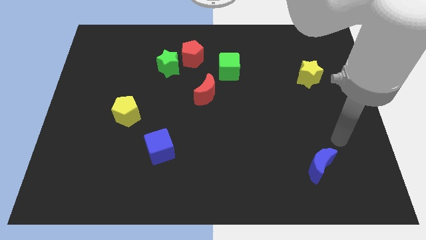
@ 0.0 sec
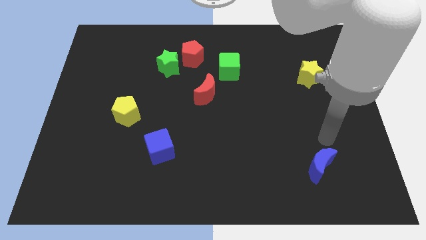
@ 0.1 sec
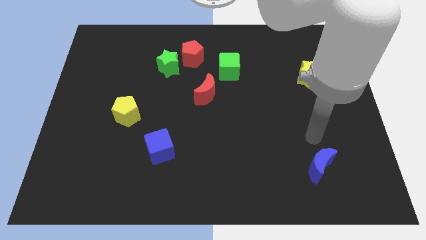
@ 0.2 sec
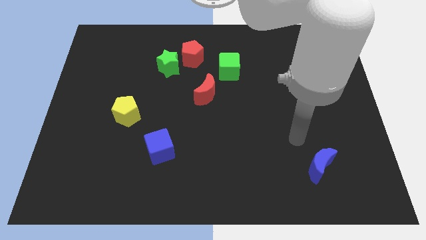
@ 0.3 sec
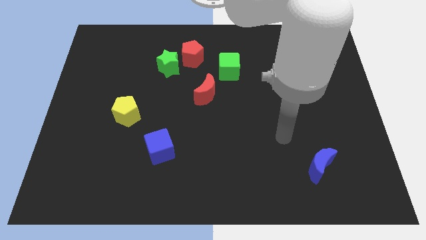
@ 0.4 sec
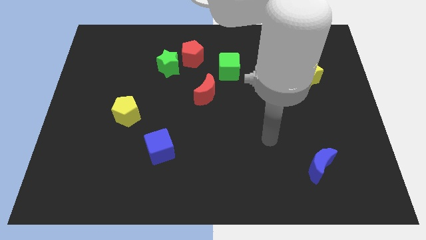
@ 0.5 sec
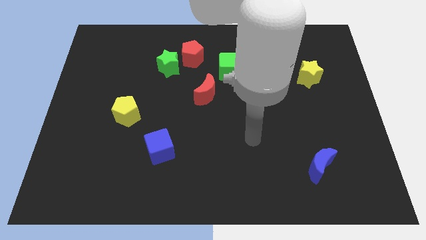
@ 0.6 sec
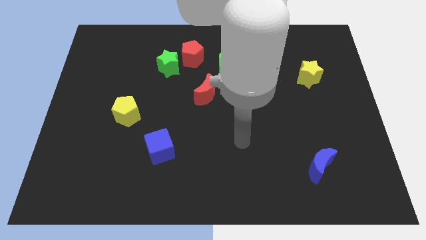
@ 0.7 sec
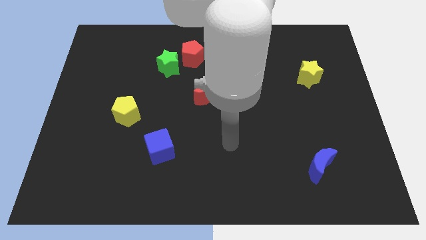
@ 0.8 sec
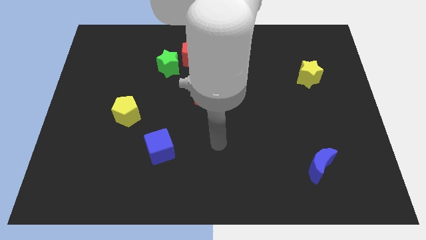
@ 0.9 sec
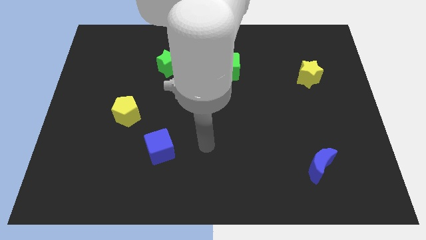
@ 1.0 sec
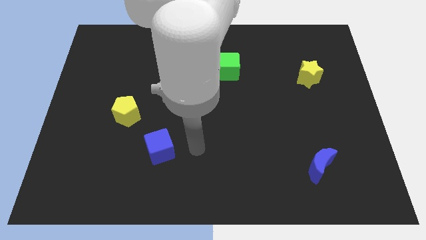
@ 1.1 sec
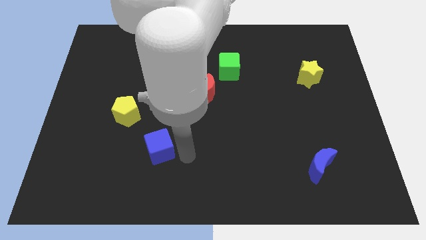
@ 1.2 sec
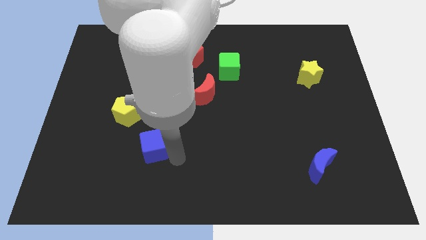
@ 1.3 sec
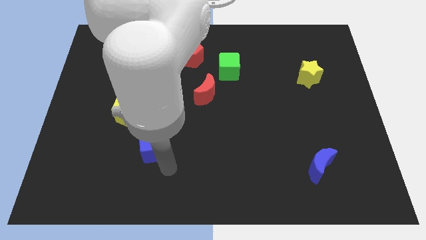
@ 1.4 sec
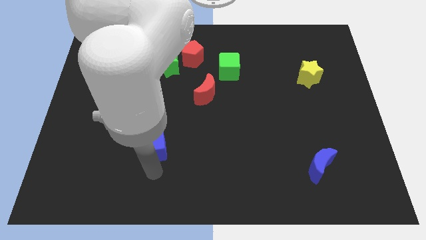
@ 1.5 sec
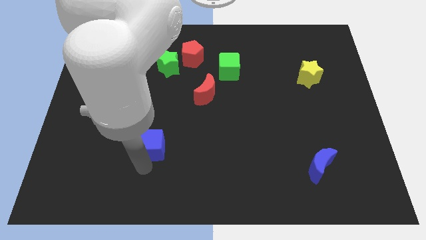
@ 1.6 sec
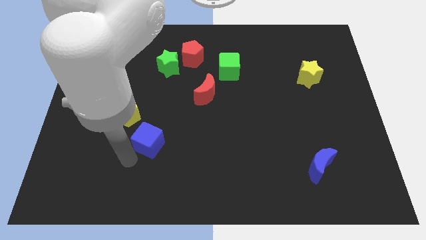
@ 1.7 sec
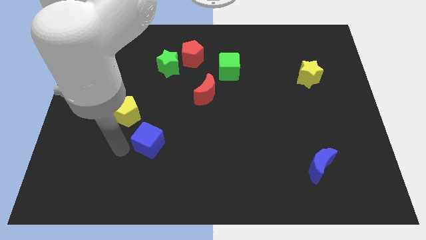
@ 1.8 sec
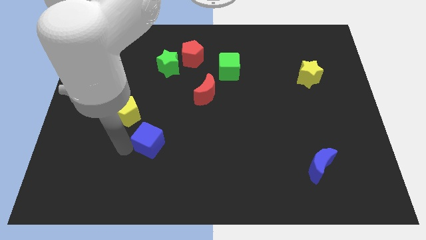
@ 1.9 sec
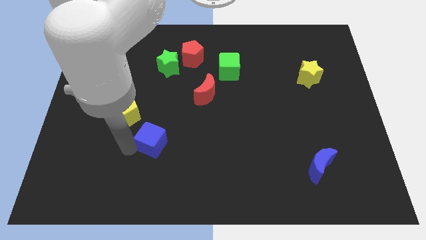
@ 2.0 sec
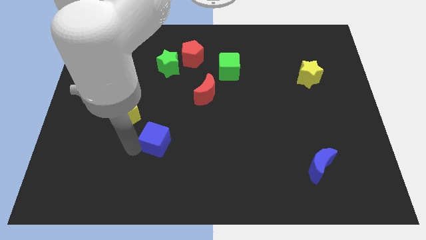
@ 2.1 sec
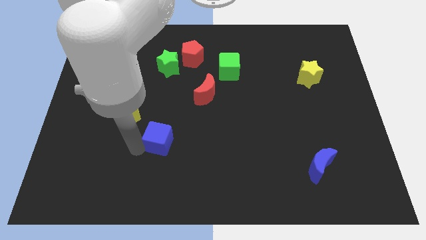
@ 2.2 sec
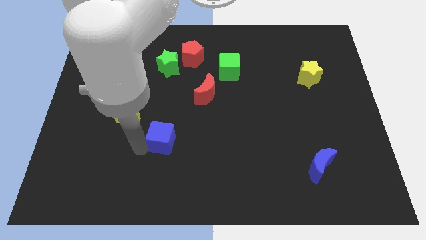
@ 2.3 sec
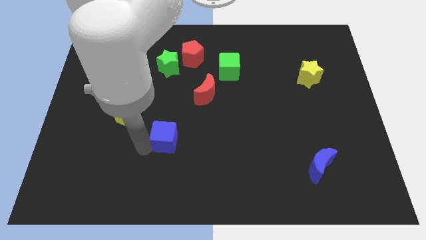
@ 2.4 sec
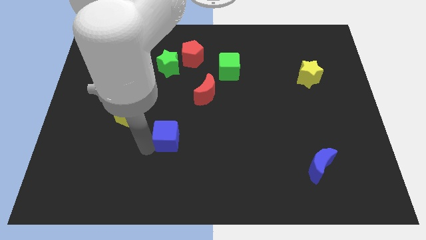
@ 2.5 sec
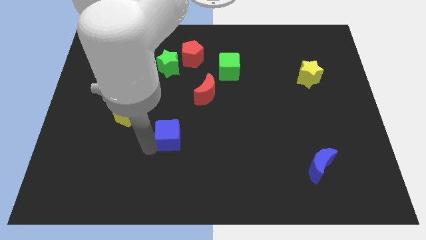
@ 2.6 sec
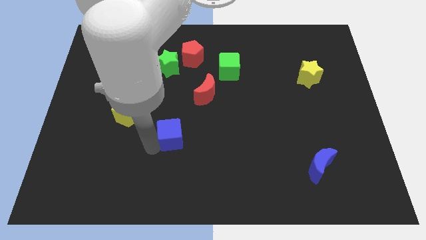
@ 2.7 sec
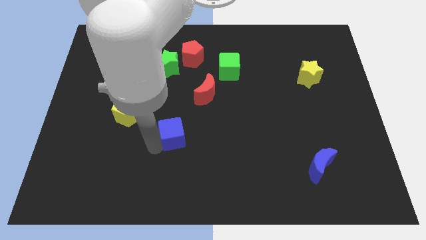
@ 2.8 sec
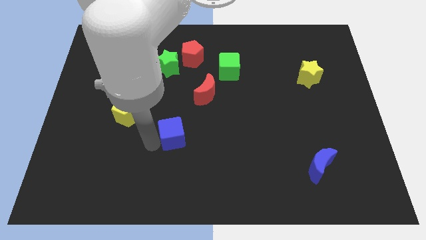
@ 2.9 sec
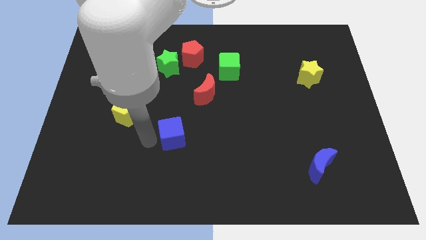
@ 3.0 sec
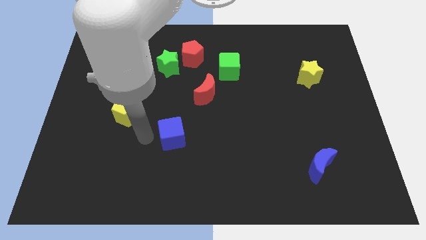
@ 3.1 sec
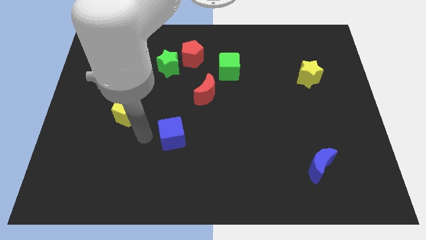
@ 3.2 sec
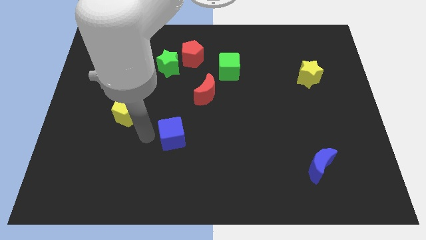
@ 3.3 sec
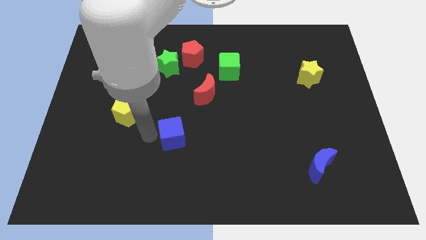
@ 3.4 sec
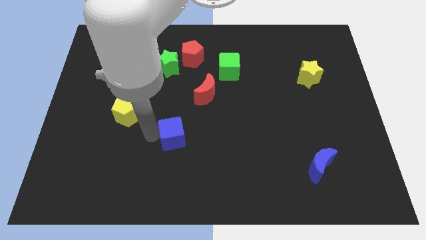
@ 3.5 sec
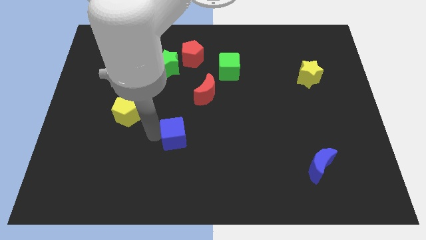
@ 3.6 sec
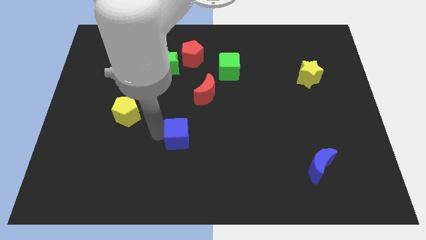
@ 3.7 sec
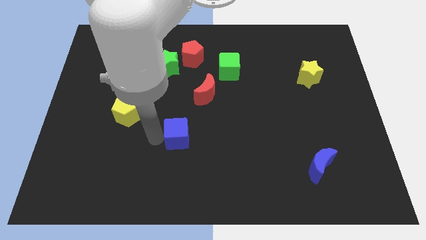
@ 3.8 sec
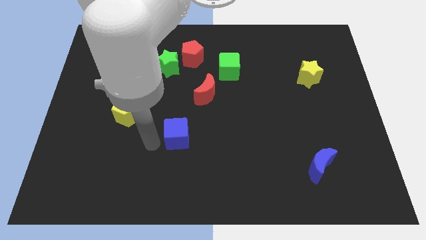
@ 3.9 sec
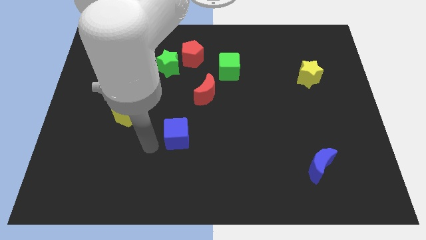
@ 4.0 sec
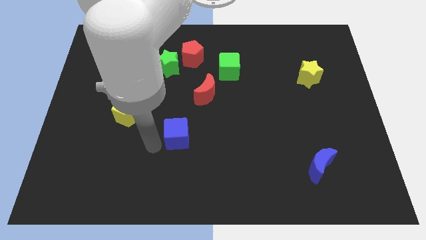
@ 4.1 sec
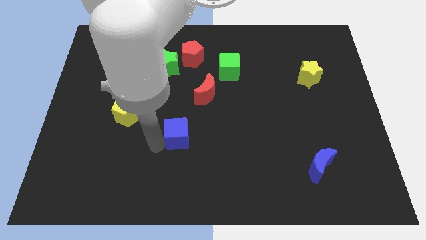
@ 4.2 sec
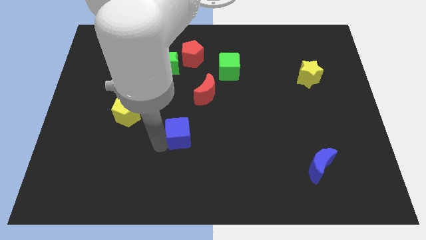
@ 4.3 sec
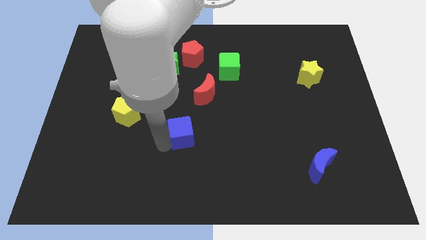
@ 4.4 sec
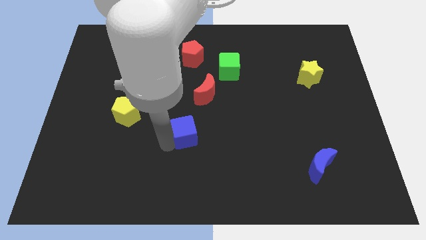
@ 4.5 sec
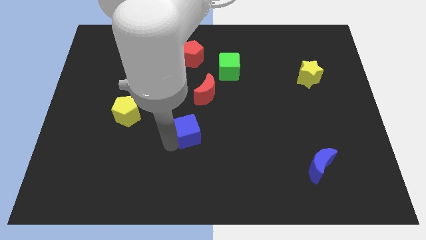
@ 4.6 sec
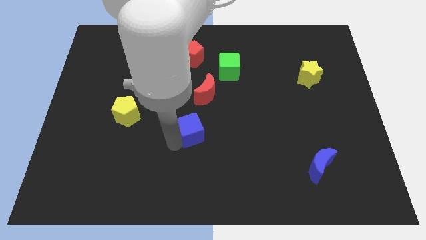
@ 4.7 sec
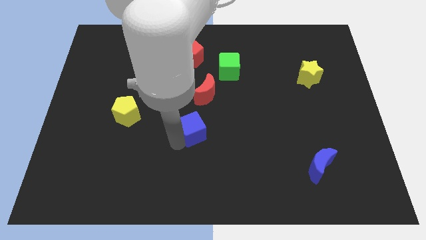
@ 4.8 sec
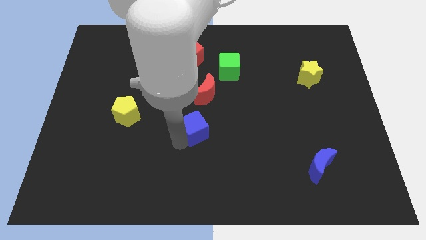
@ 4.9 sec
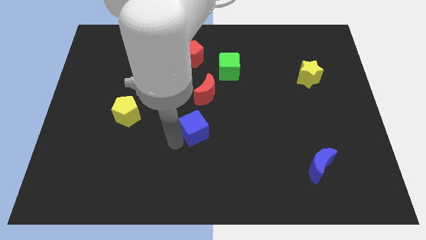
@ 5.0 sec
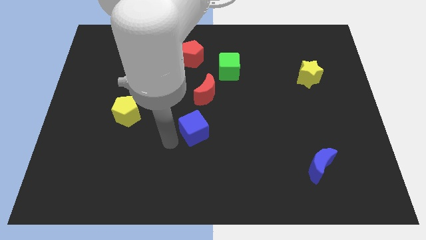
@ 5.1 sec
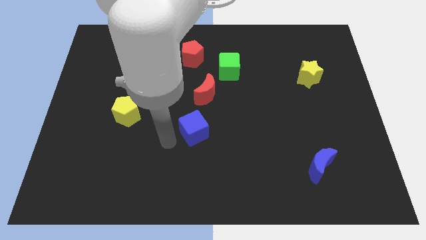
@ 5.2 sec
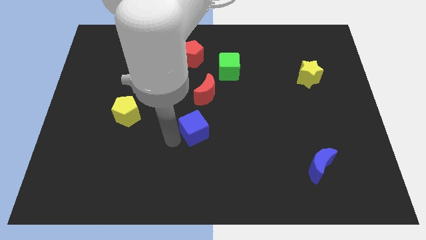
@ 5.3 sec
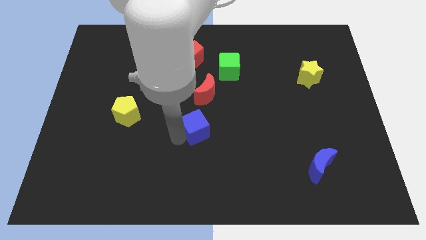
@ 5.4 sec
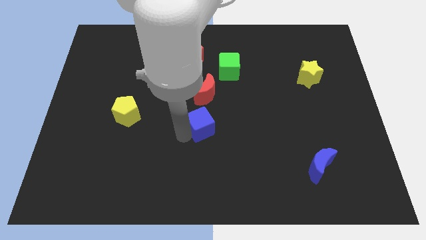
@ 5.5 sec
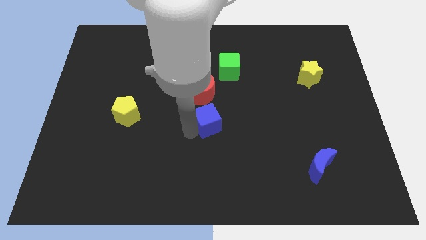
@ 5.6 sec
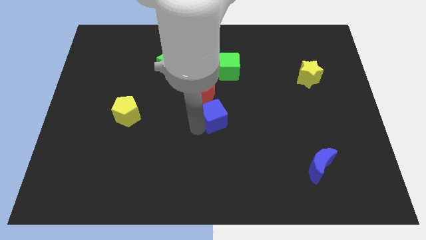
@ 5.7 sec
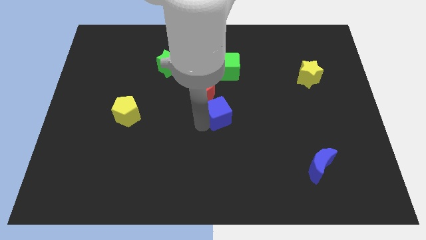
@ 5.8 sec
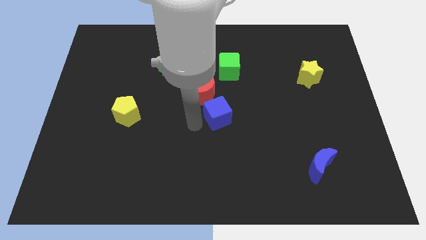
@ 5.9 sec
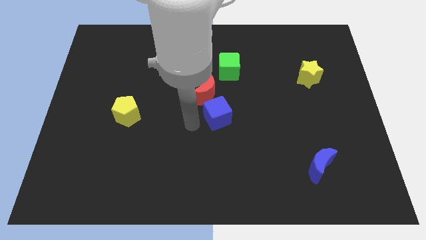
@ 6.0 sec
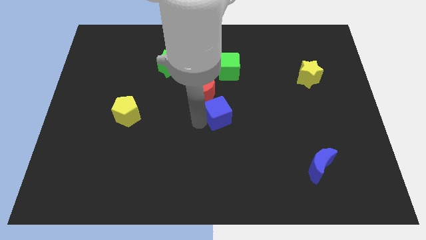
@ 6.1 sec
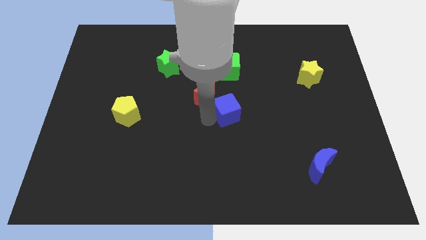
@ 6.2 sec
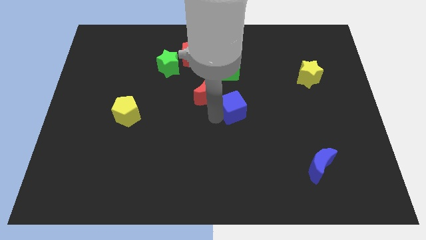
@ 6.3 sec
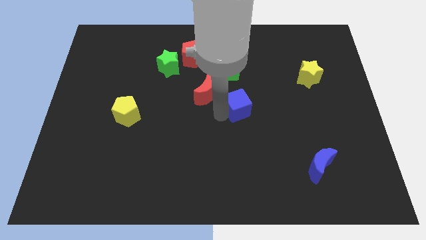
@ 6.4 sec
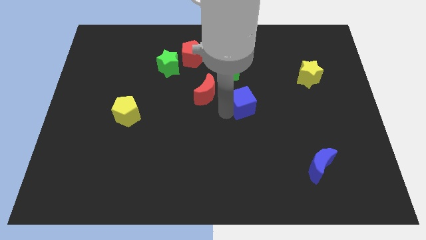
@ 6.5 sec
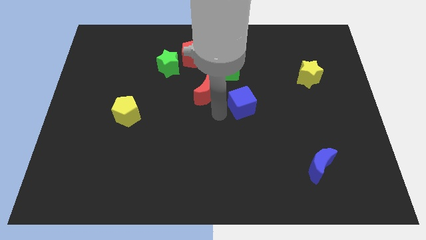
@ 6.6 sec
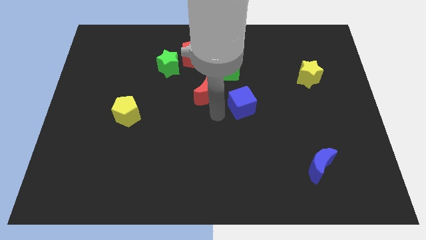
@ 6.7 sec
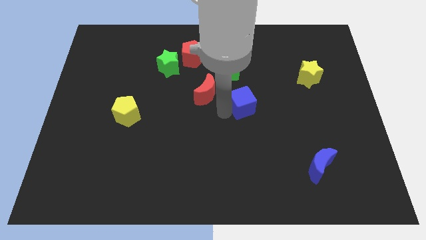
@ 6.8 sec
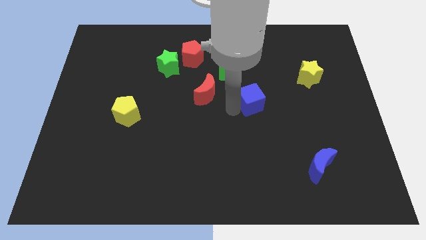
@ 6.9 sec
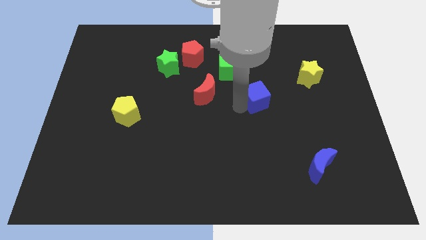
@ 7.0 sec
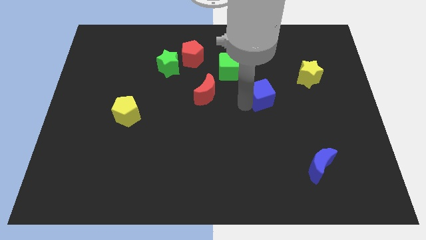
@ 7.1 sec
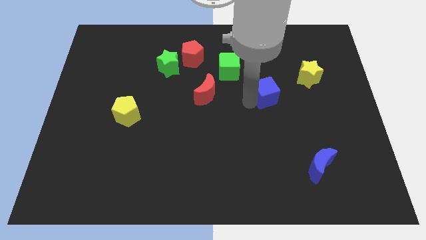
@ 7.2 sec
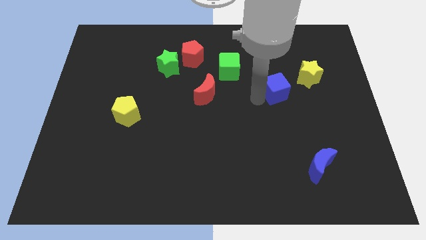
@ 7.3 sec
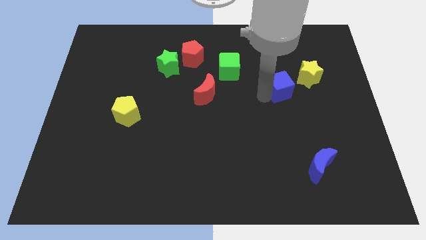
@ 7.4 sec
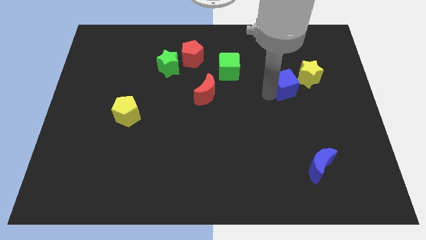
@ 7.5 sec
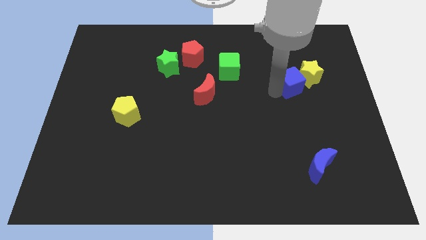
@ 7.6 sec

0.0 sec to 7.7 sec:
push the blue cube towards the yellow star
